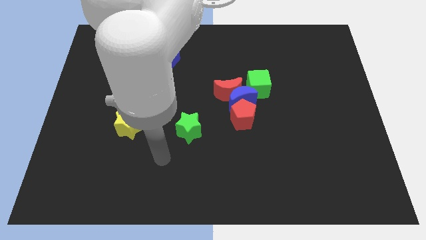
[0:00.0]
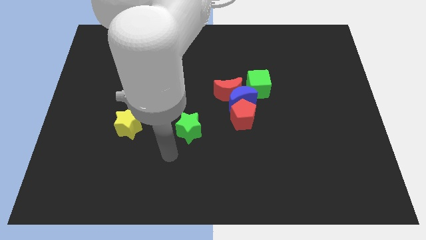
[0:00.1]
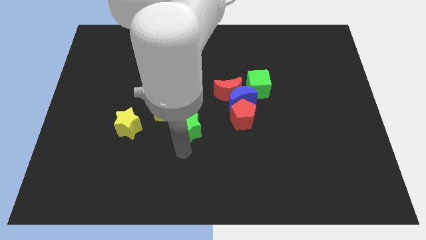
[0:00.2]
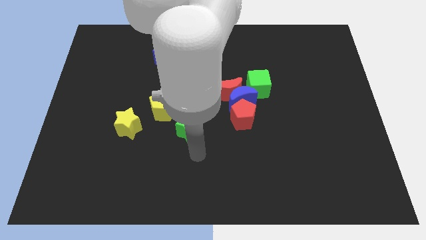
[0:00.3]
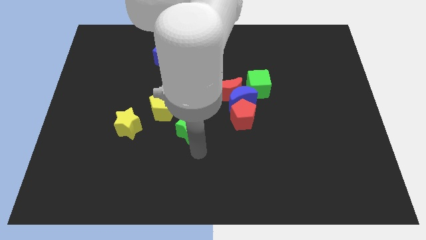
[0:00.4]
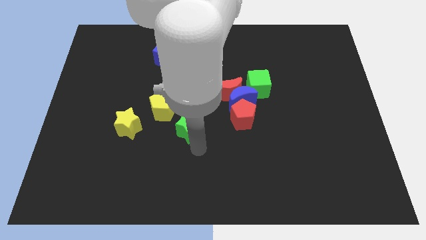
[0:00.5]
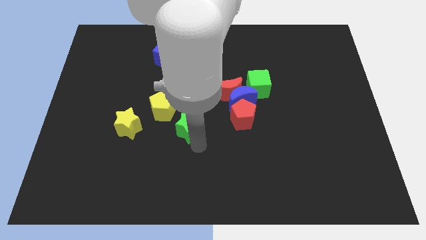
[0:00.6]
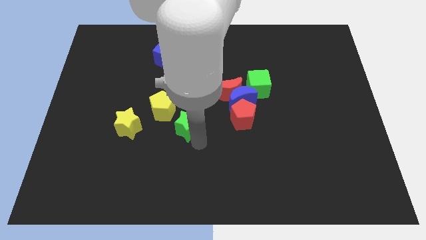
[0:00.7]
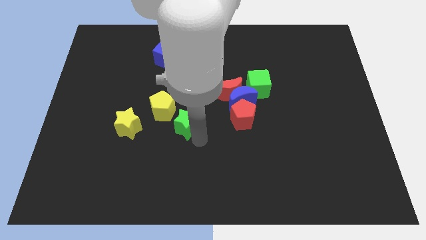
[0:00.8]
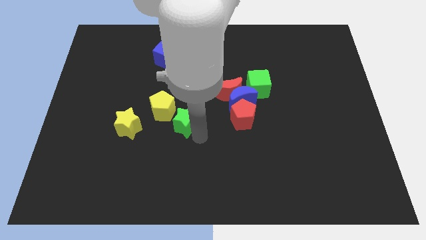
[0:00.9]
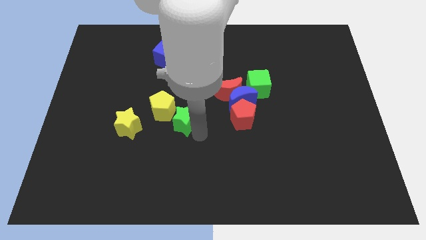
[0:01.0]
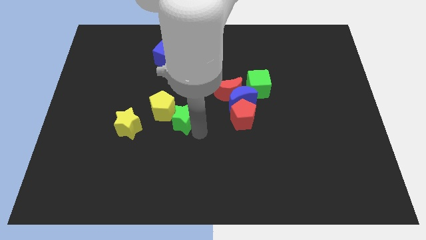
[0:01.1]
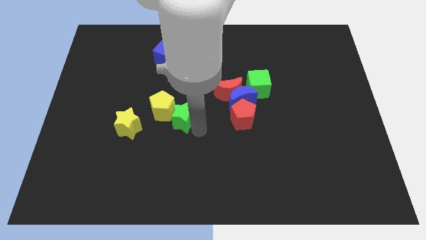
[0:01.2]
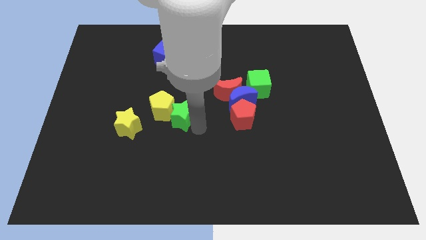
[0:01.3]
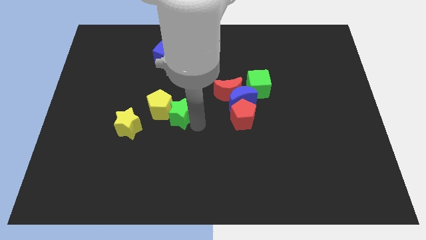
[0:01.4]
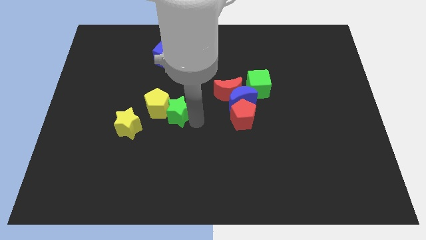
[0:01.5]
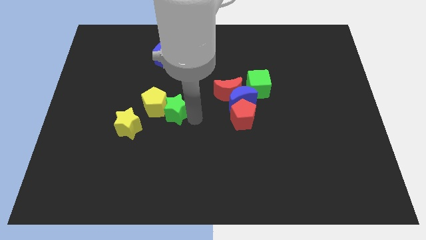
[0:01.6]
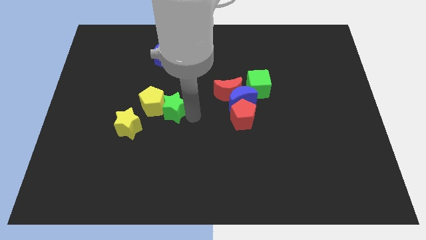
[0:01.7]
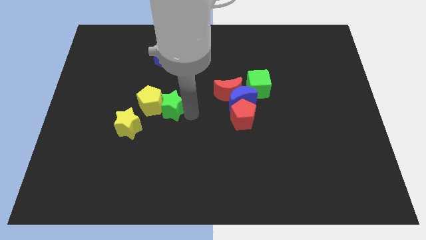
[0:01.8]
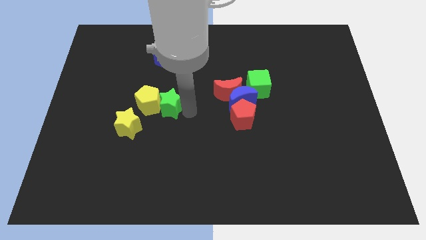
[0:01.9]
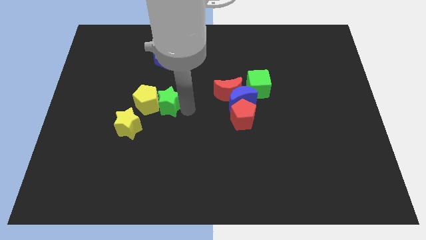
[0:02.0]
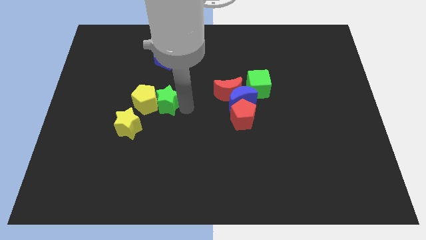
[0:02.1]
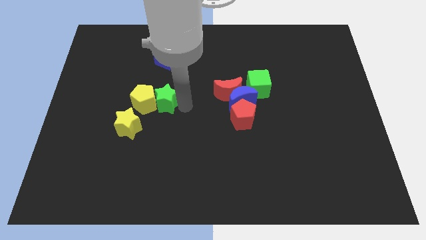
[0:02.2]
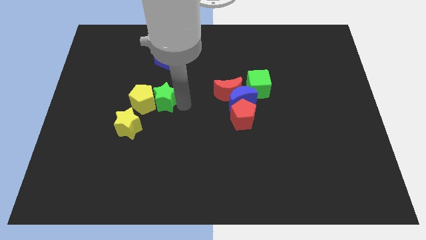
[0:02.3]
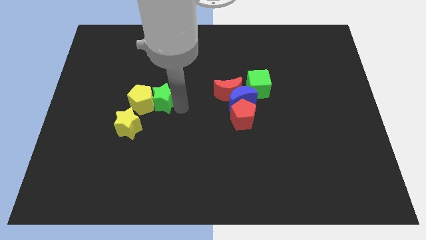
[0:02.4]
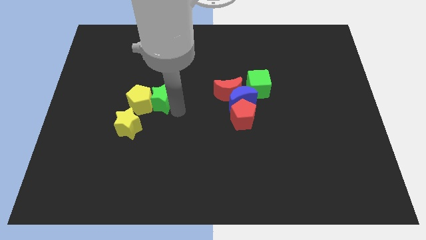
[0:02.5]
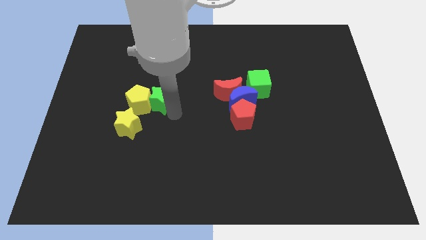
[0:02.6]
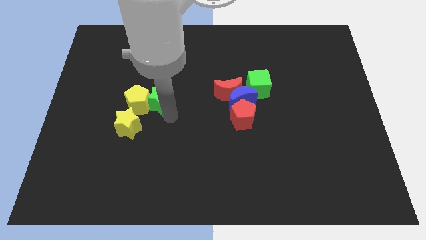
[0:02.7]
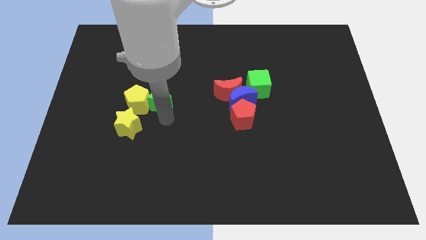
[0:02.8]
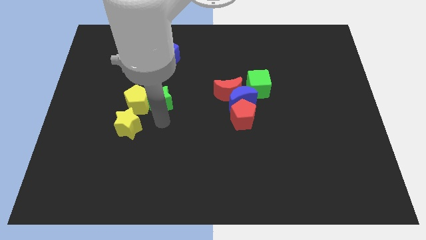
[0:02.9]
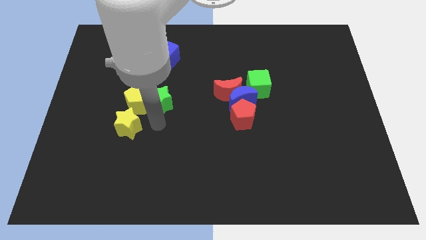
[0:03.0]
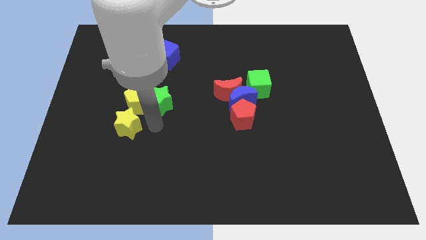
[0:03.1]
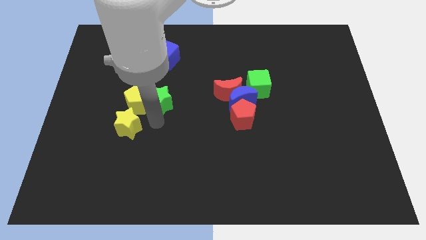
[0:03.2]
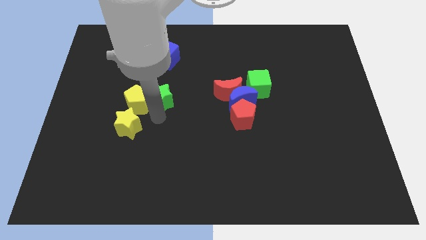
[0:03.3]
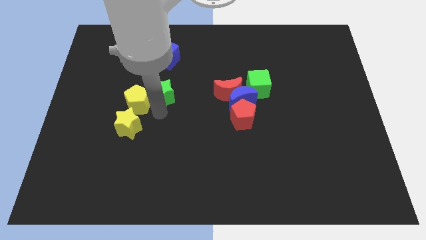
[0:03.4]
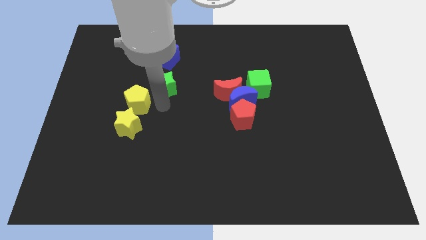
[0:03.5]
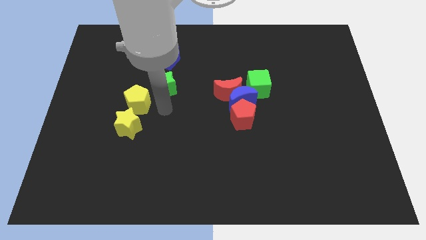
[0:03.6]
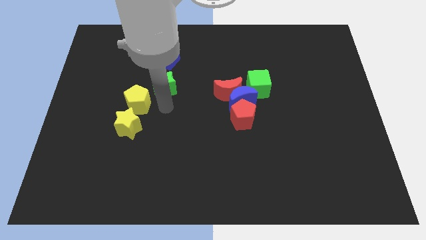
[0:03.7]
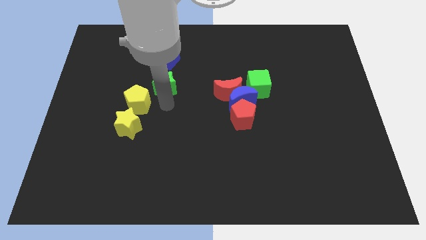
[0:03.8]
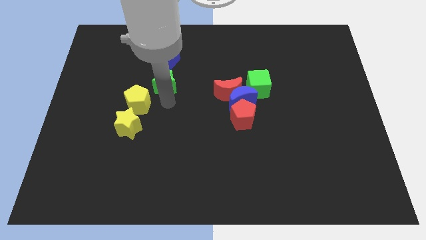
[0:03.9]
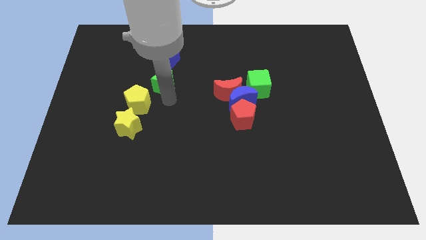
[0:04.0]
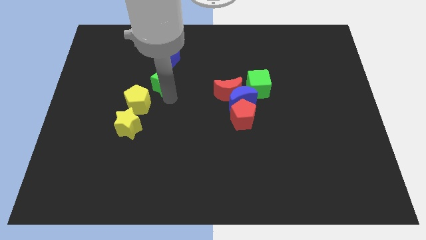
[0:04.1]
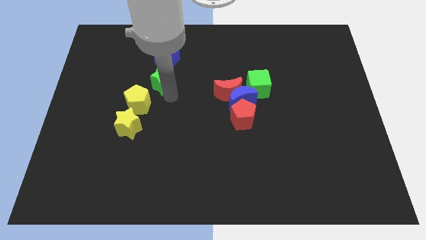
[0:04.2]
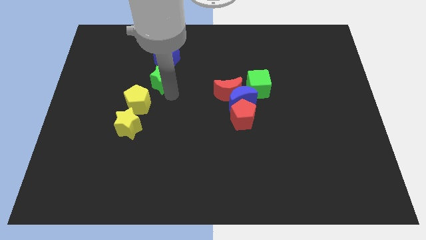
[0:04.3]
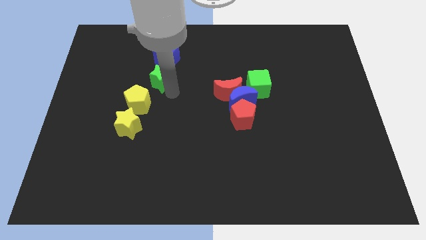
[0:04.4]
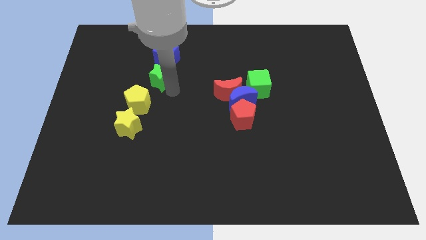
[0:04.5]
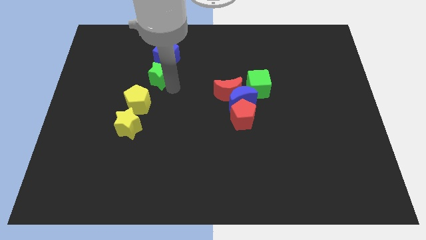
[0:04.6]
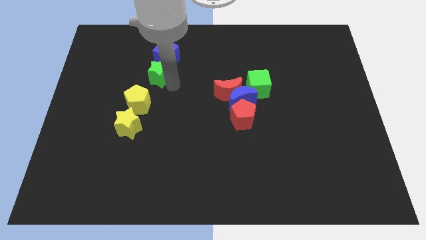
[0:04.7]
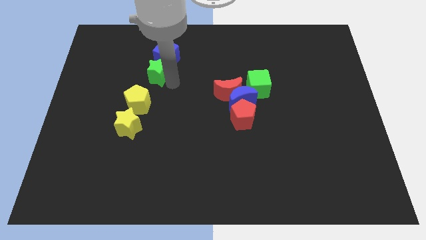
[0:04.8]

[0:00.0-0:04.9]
push the green star towards the blue cube

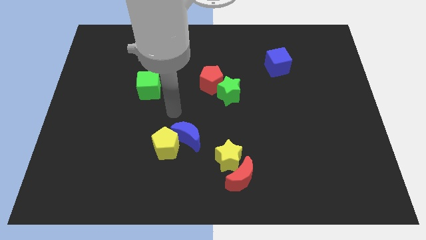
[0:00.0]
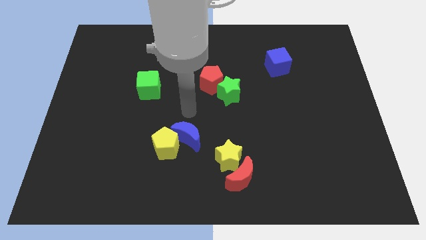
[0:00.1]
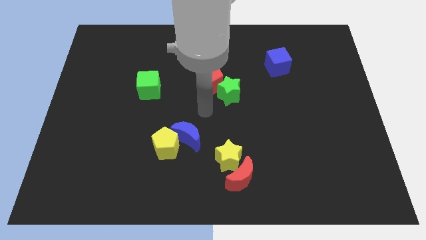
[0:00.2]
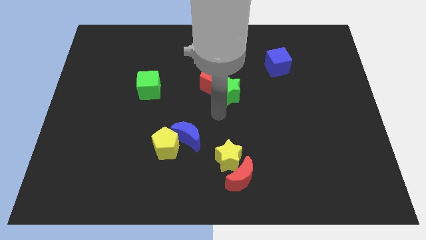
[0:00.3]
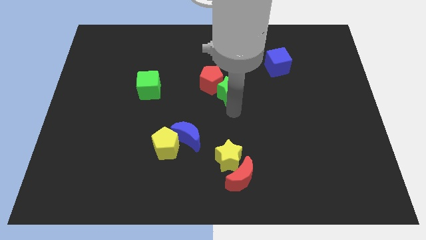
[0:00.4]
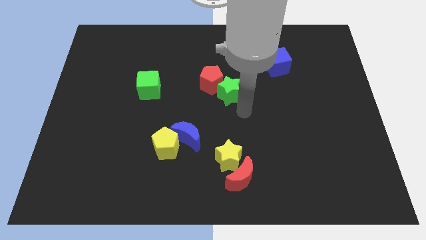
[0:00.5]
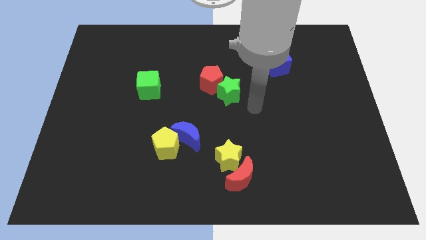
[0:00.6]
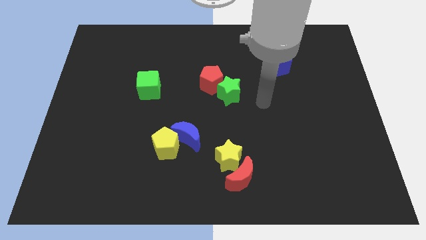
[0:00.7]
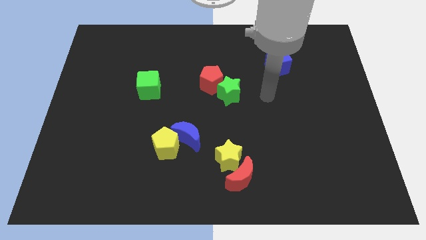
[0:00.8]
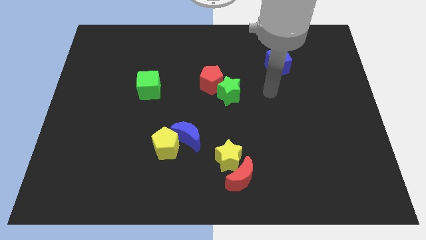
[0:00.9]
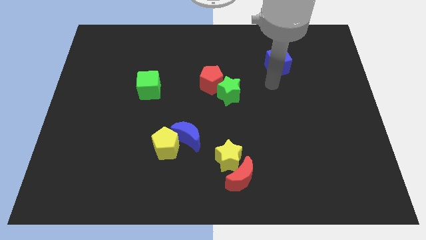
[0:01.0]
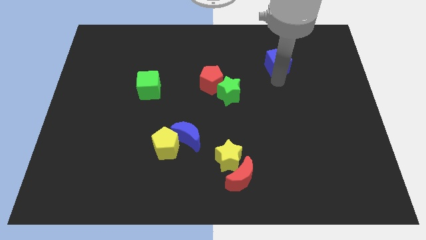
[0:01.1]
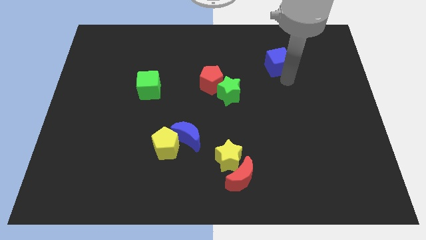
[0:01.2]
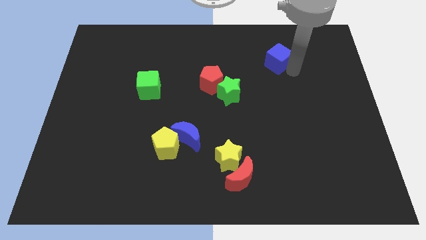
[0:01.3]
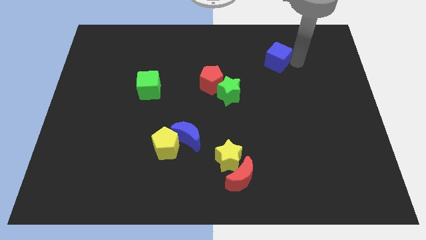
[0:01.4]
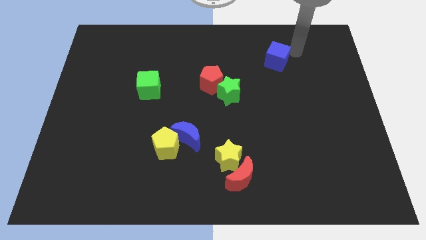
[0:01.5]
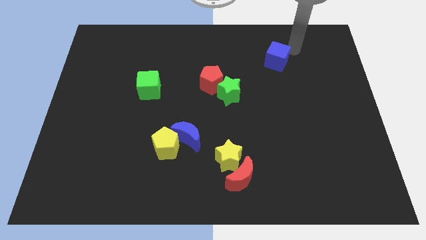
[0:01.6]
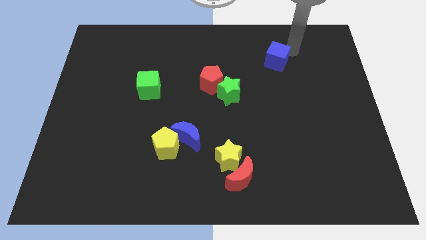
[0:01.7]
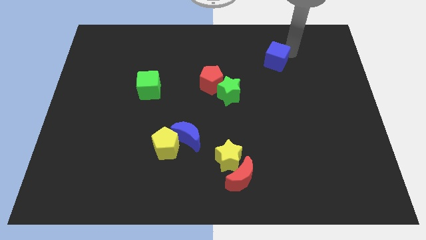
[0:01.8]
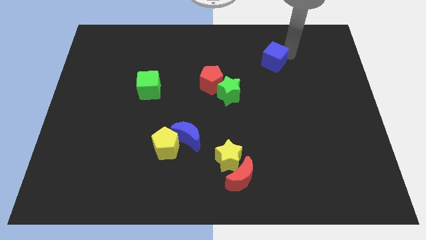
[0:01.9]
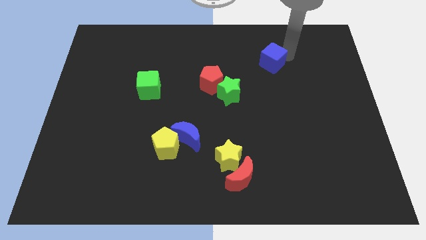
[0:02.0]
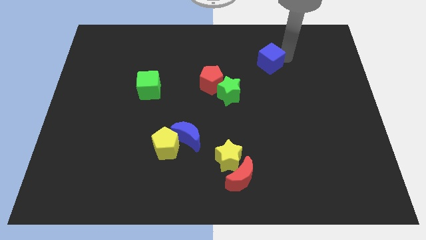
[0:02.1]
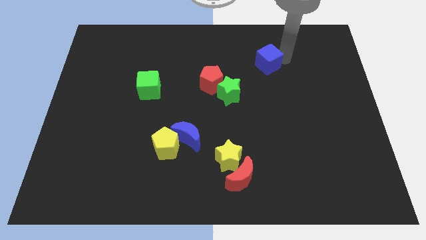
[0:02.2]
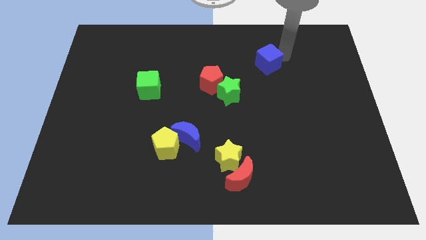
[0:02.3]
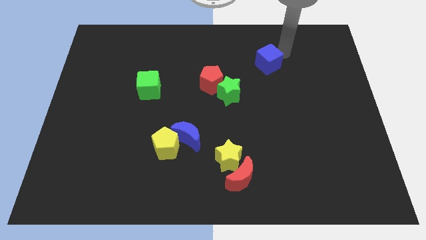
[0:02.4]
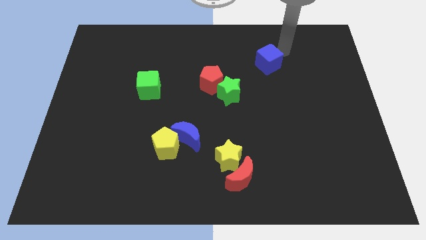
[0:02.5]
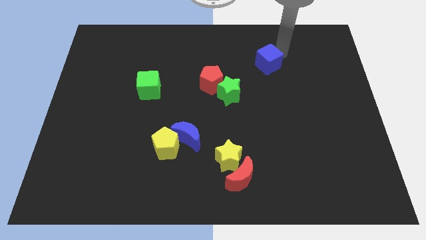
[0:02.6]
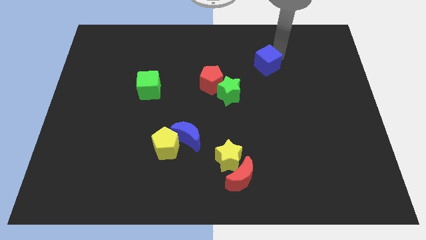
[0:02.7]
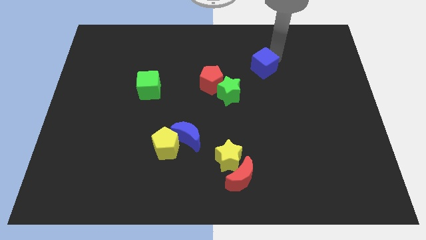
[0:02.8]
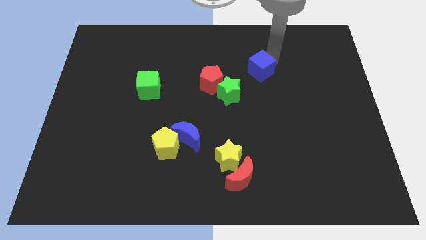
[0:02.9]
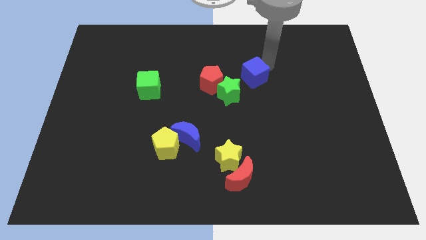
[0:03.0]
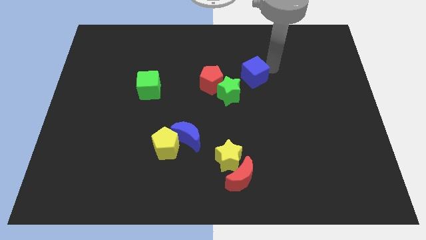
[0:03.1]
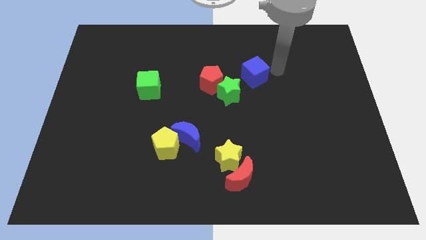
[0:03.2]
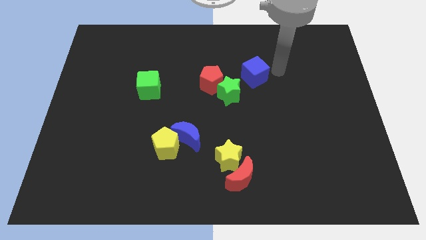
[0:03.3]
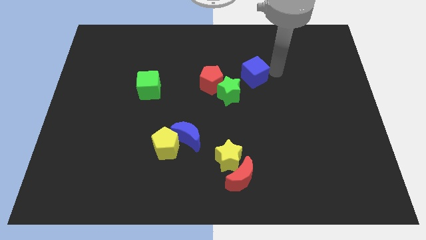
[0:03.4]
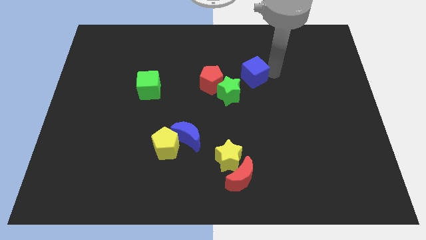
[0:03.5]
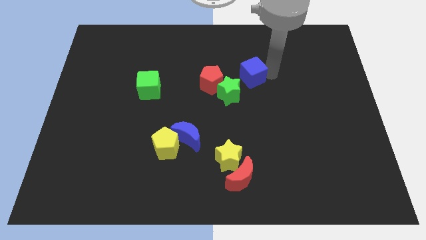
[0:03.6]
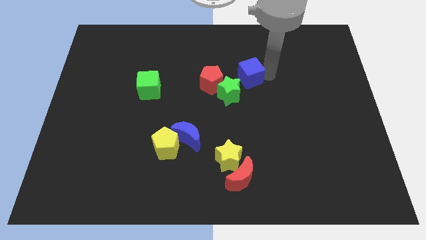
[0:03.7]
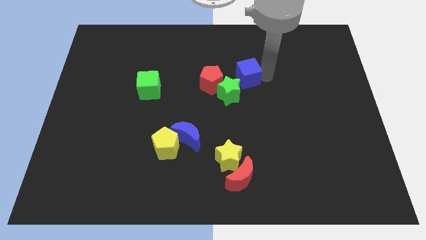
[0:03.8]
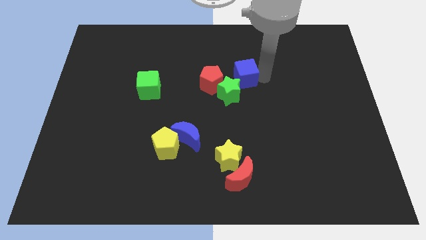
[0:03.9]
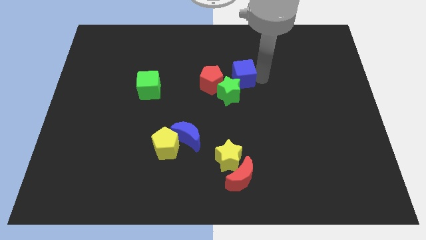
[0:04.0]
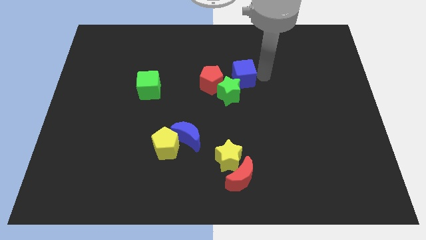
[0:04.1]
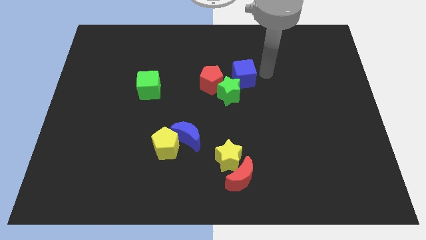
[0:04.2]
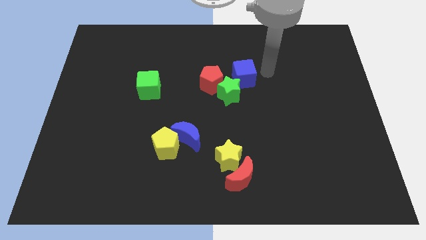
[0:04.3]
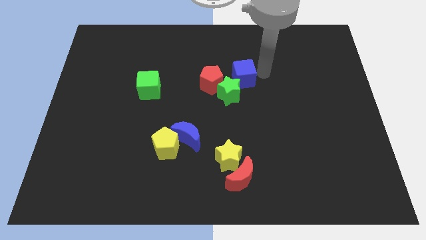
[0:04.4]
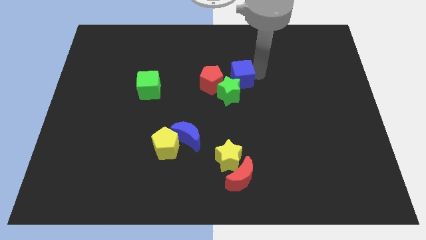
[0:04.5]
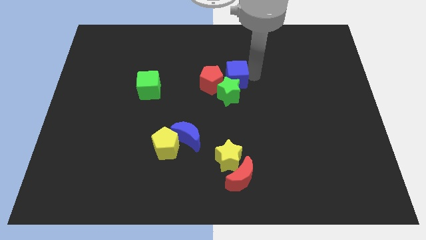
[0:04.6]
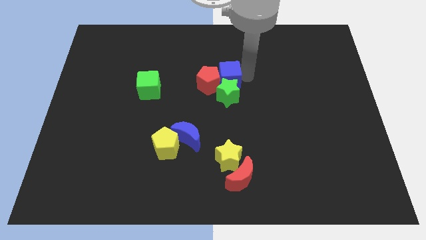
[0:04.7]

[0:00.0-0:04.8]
put the blue cube next to the red pentagon
